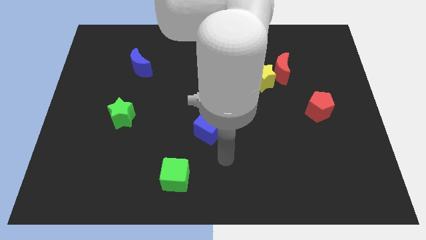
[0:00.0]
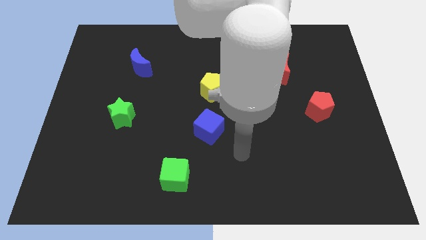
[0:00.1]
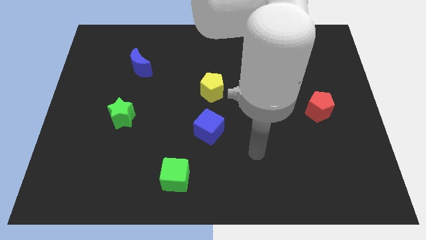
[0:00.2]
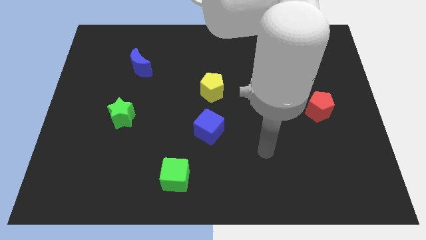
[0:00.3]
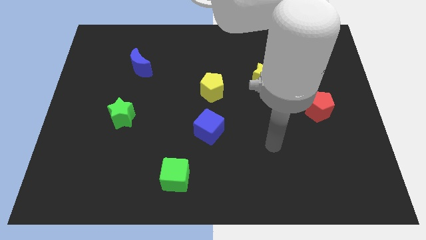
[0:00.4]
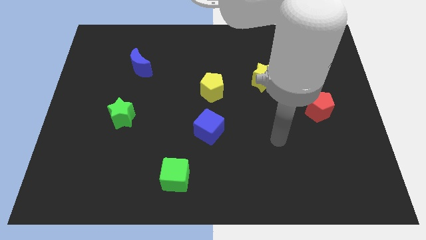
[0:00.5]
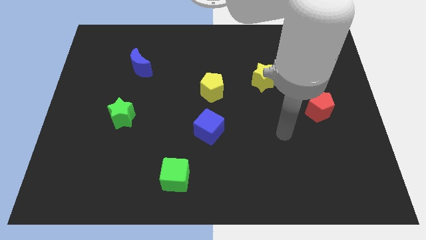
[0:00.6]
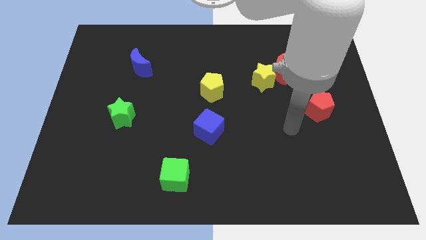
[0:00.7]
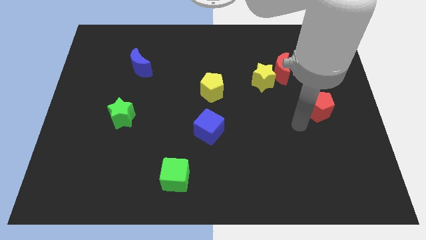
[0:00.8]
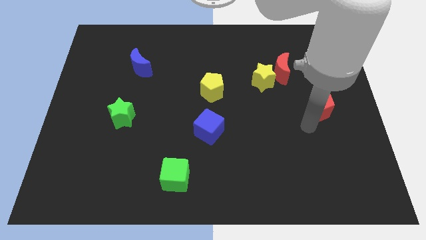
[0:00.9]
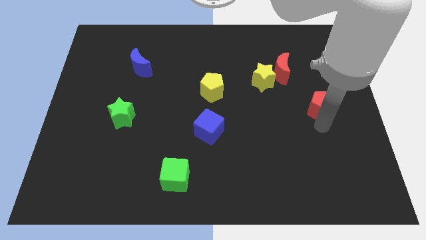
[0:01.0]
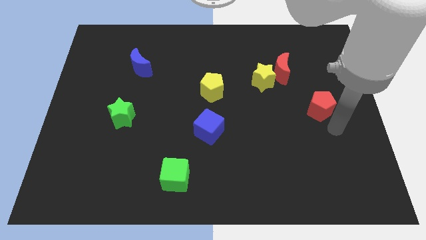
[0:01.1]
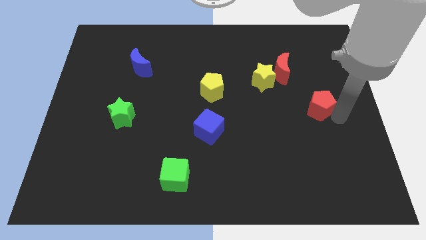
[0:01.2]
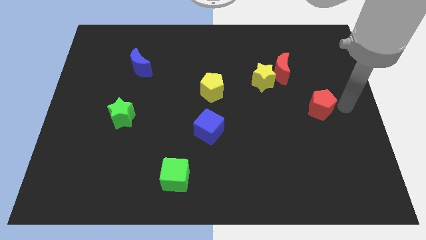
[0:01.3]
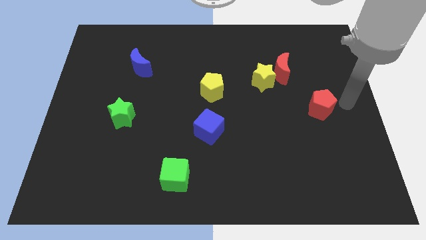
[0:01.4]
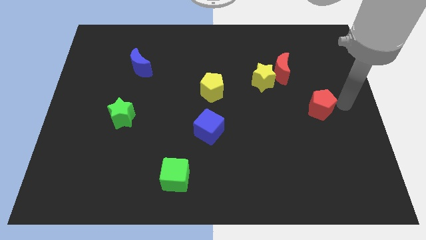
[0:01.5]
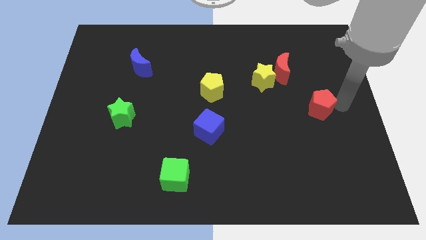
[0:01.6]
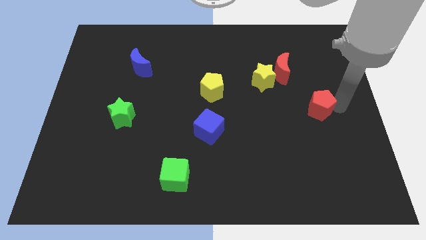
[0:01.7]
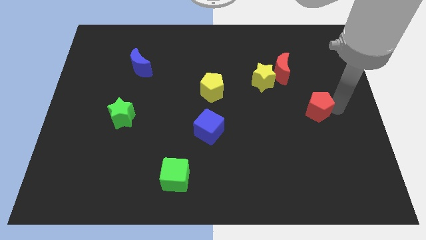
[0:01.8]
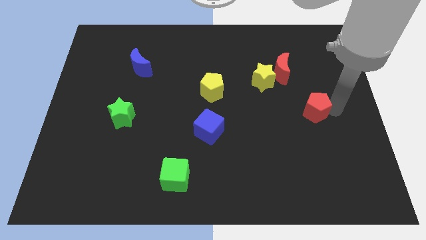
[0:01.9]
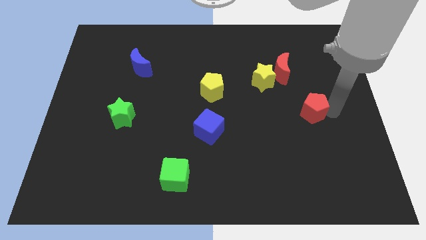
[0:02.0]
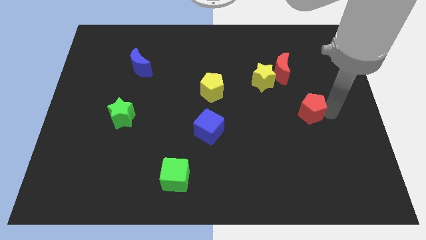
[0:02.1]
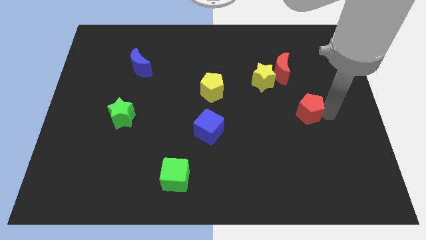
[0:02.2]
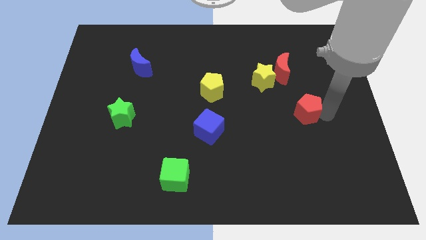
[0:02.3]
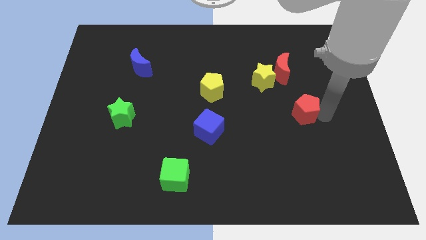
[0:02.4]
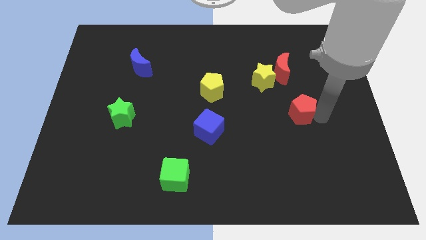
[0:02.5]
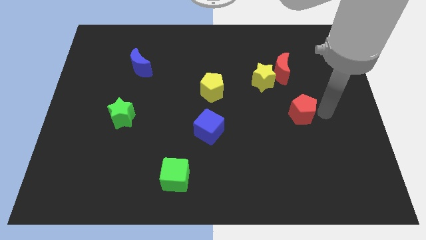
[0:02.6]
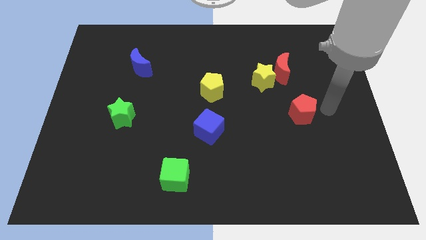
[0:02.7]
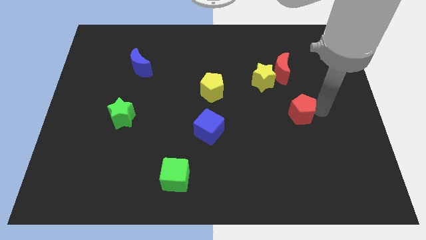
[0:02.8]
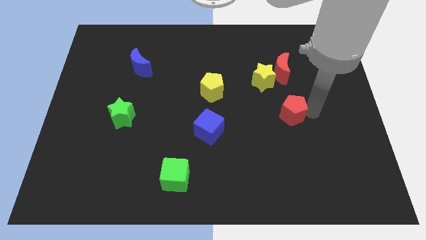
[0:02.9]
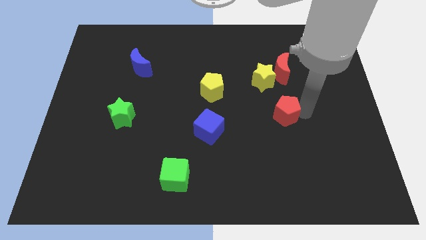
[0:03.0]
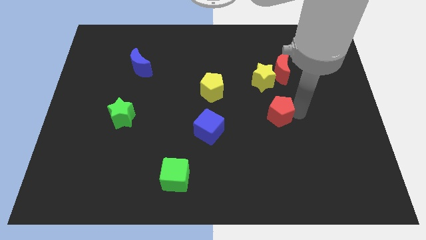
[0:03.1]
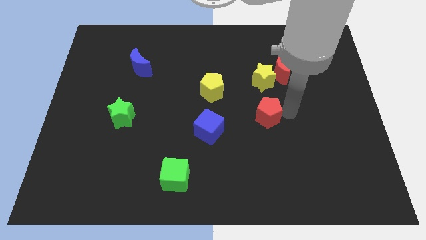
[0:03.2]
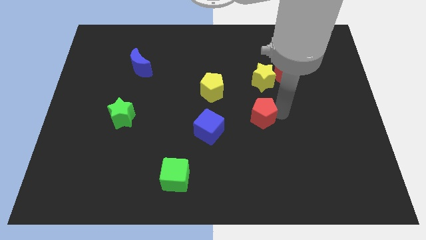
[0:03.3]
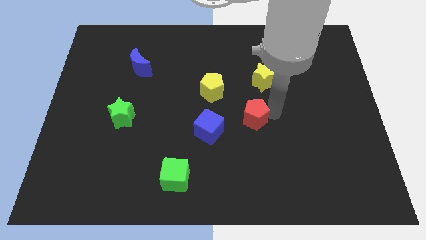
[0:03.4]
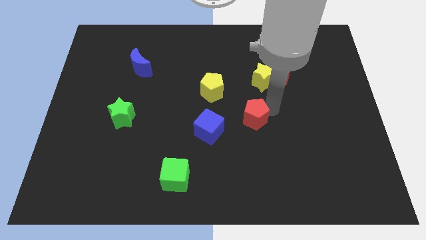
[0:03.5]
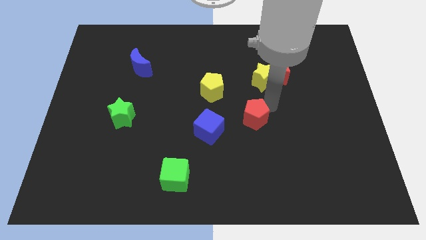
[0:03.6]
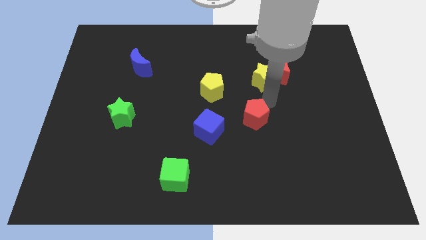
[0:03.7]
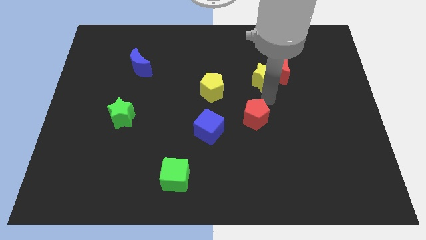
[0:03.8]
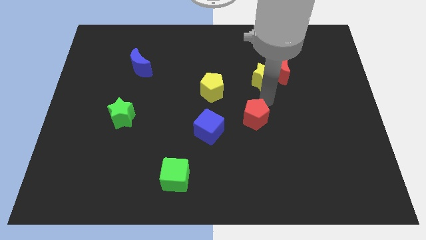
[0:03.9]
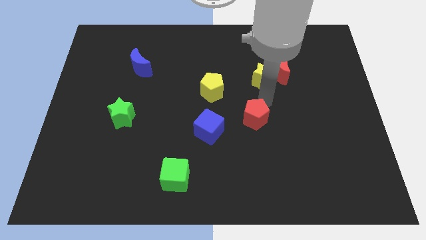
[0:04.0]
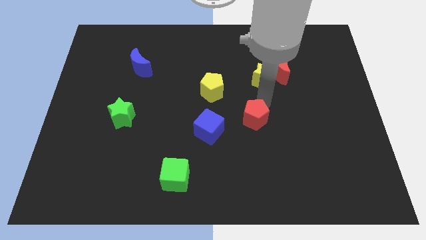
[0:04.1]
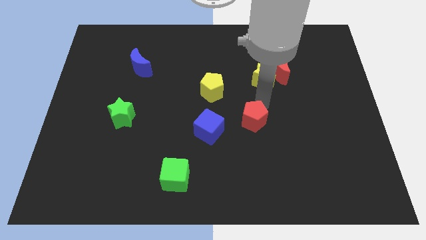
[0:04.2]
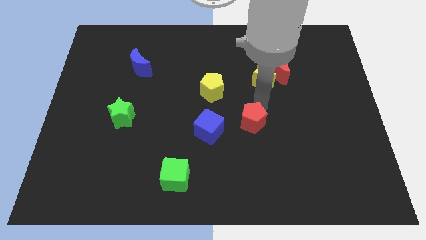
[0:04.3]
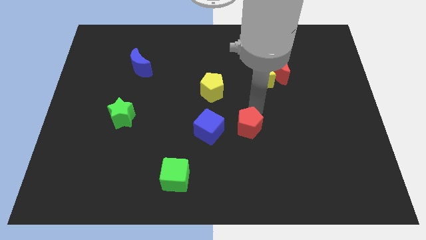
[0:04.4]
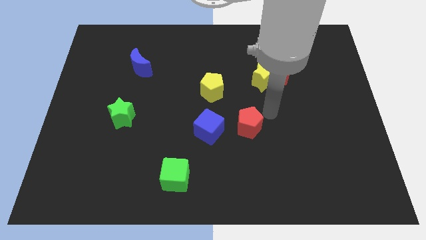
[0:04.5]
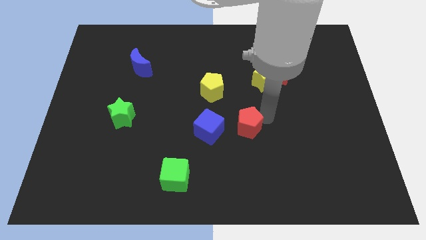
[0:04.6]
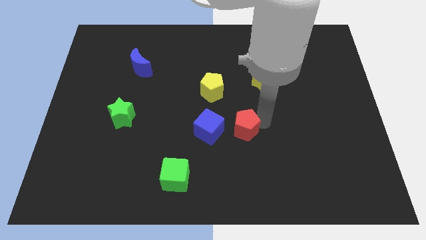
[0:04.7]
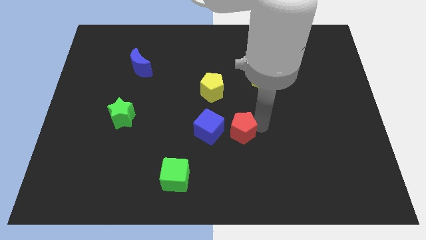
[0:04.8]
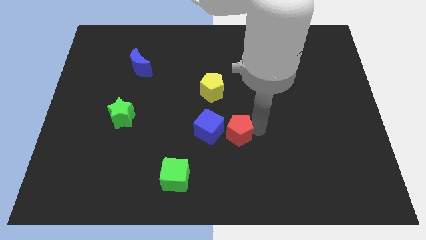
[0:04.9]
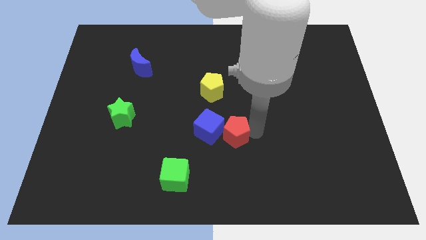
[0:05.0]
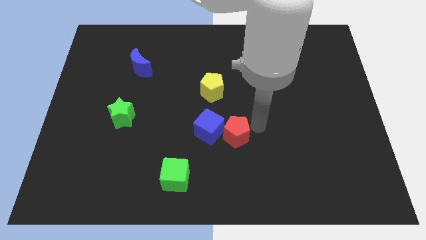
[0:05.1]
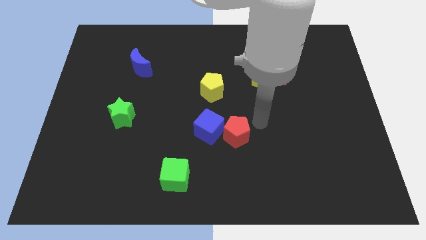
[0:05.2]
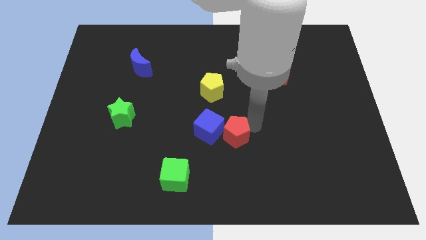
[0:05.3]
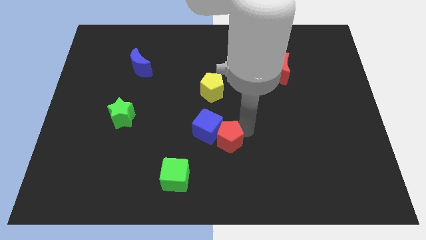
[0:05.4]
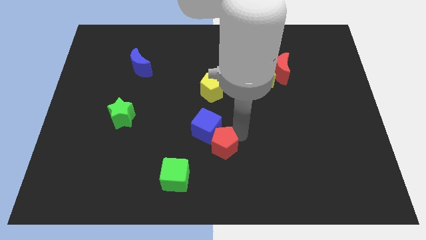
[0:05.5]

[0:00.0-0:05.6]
slide the red pentagon diagonally up and to the right of the green cube

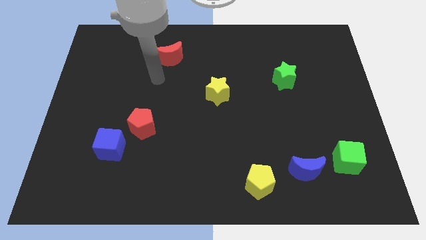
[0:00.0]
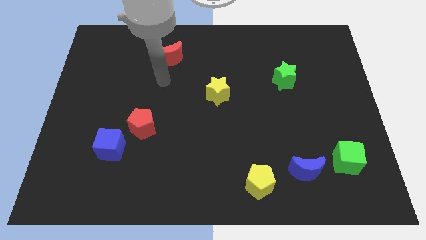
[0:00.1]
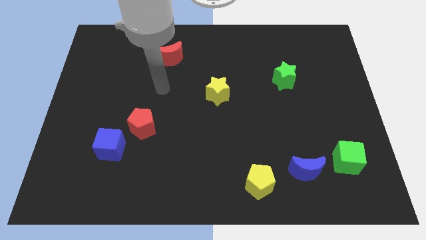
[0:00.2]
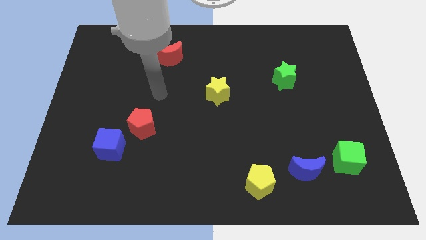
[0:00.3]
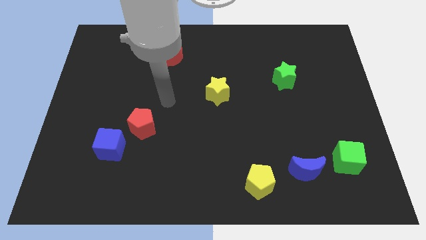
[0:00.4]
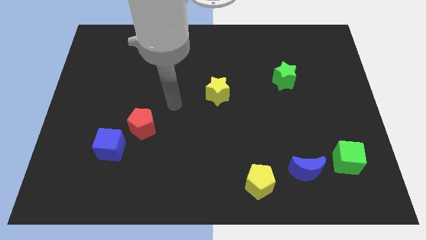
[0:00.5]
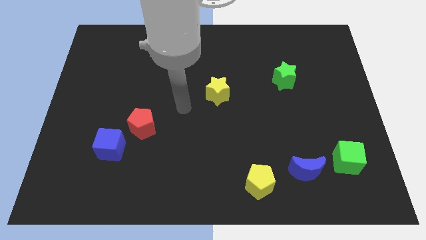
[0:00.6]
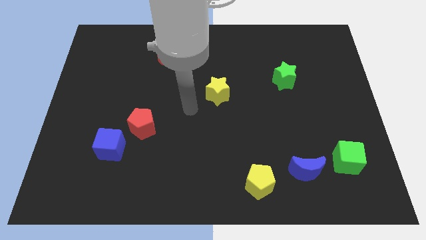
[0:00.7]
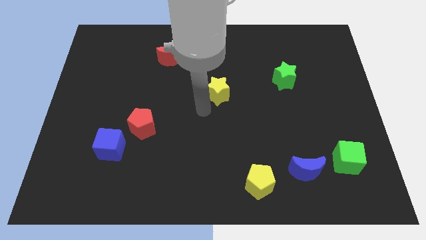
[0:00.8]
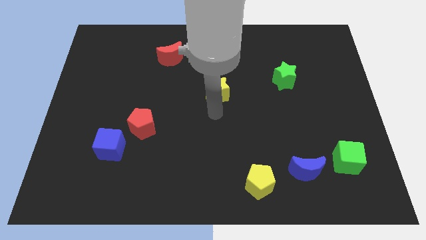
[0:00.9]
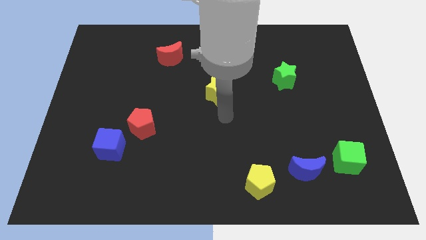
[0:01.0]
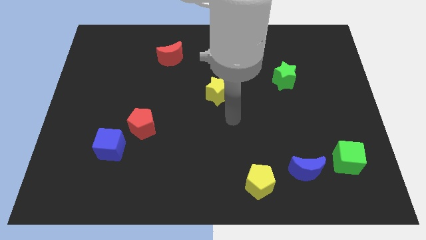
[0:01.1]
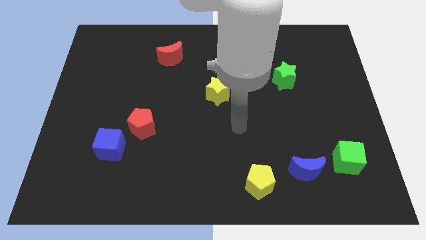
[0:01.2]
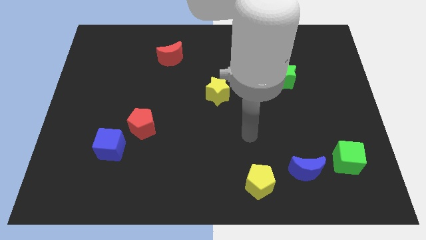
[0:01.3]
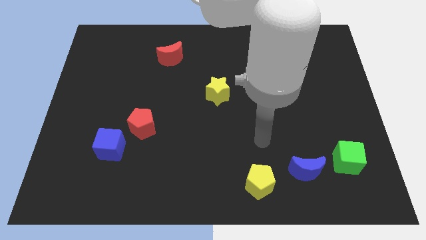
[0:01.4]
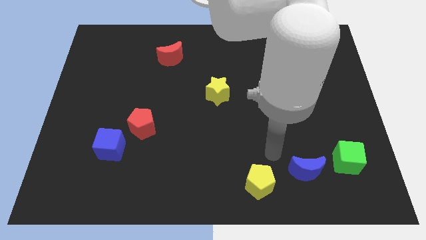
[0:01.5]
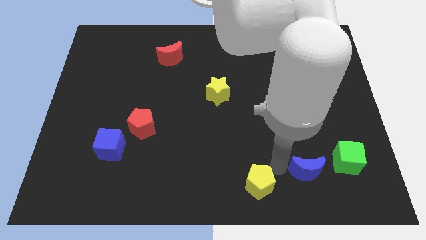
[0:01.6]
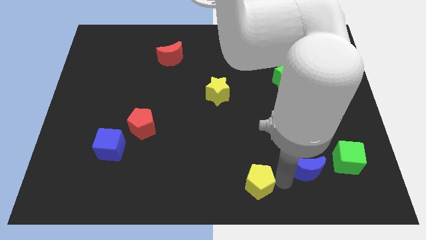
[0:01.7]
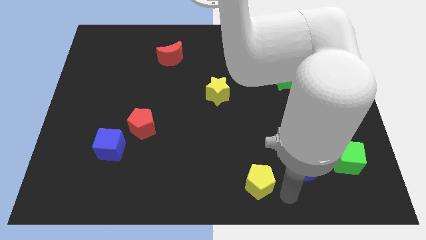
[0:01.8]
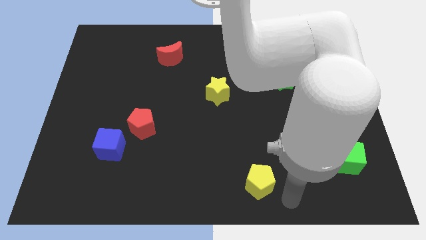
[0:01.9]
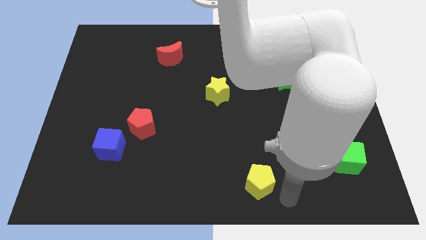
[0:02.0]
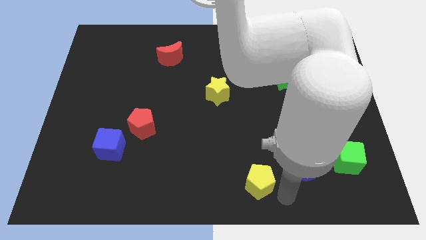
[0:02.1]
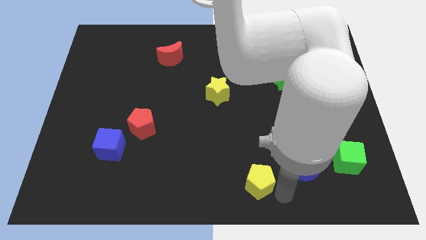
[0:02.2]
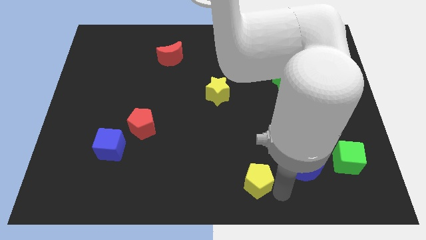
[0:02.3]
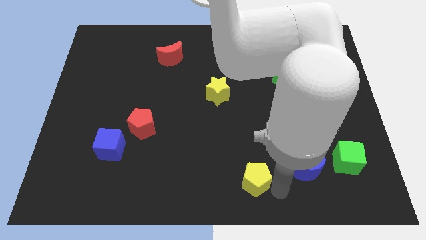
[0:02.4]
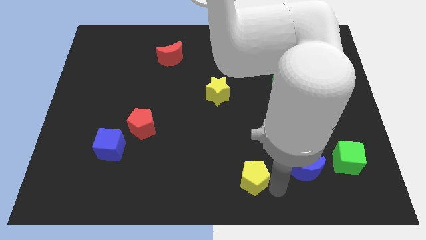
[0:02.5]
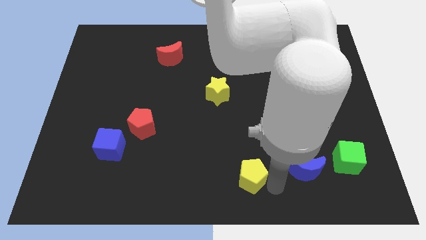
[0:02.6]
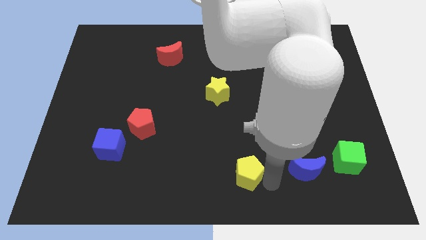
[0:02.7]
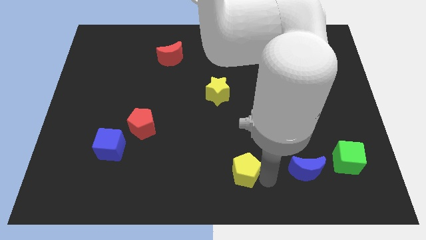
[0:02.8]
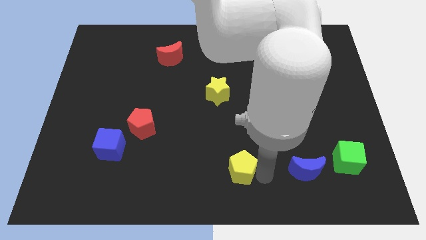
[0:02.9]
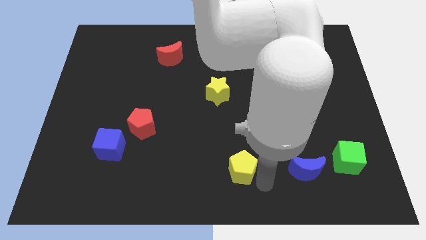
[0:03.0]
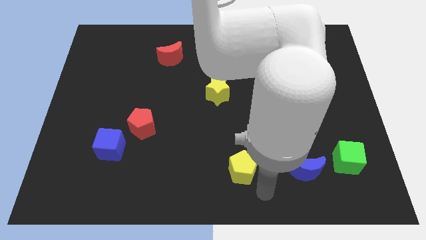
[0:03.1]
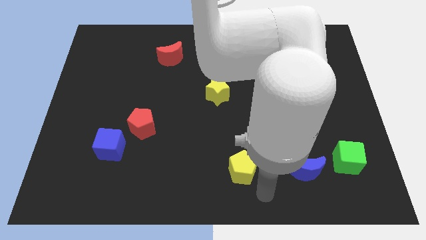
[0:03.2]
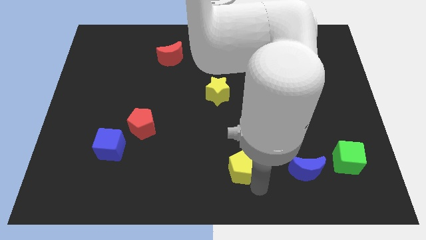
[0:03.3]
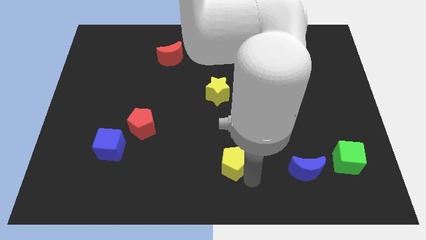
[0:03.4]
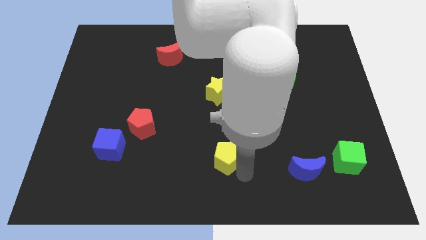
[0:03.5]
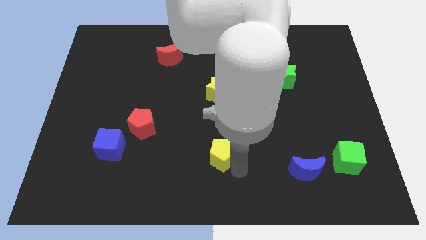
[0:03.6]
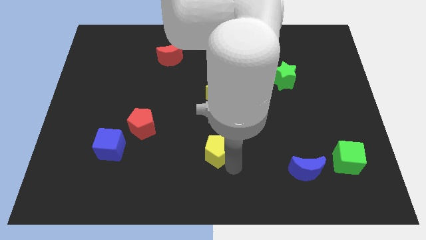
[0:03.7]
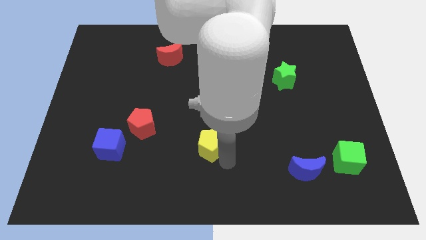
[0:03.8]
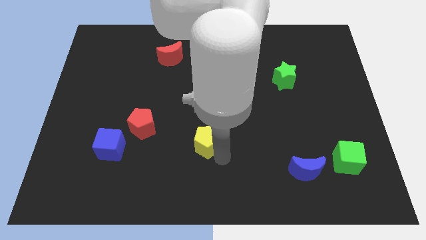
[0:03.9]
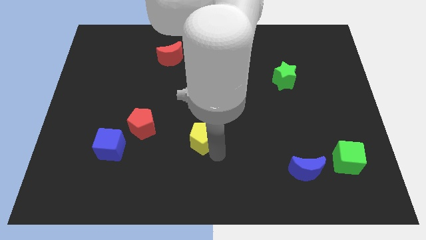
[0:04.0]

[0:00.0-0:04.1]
put the yellow pentagon to the right of the red pentagon
